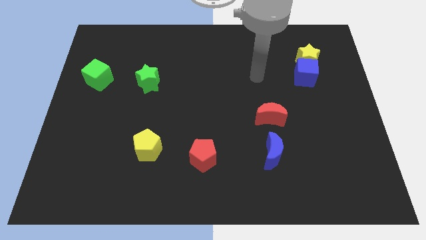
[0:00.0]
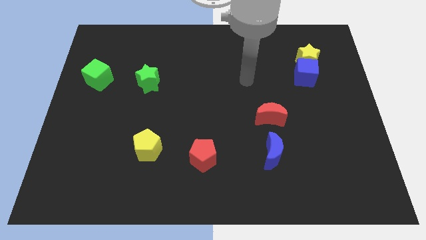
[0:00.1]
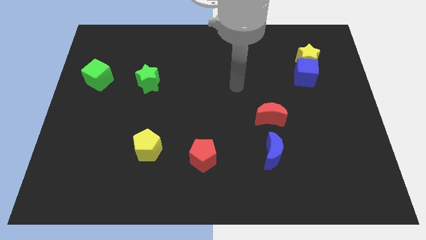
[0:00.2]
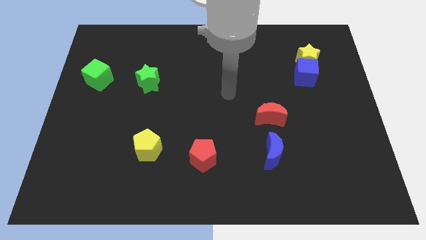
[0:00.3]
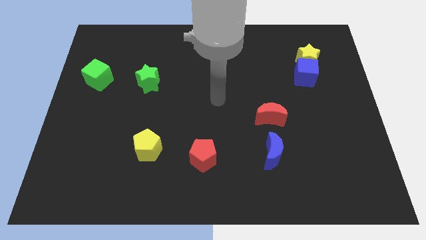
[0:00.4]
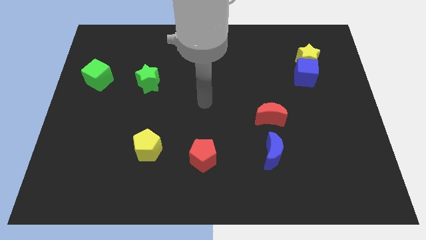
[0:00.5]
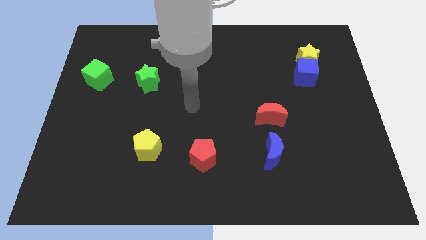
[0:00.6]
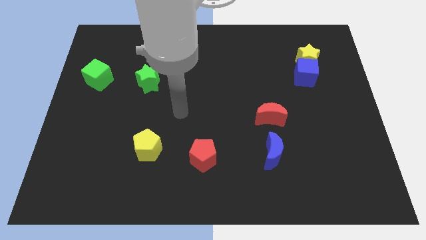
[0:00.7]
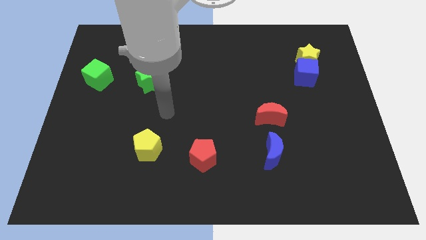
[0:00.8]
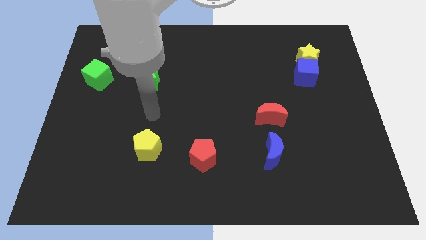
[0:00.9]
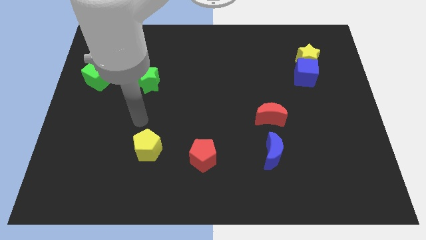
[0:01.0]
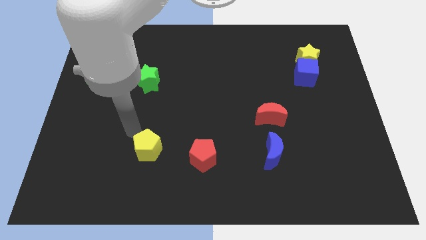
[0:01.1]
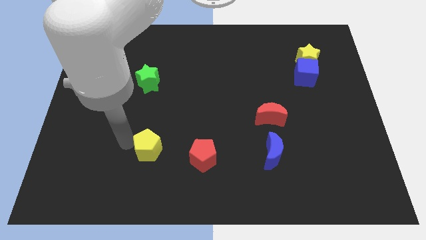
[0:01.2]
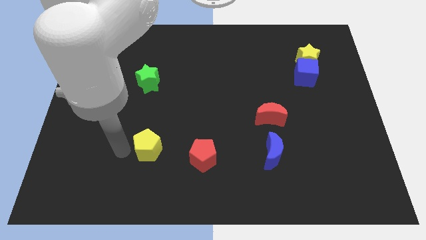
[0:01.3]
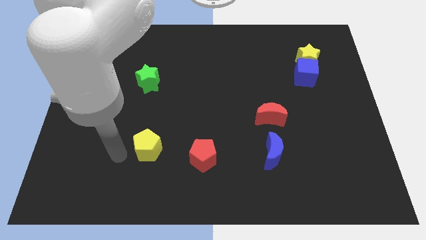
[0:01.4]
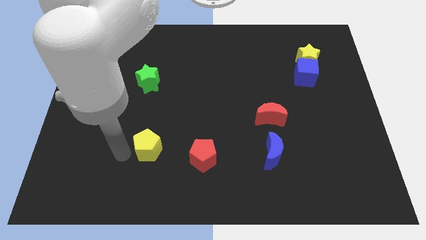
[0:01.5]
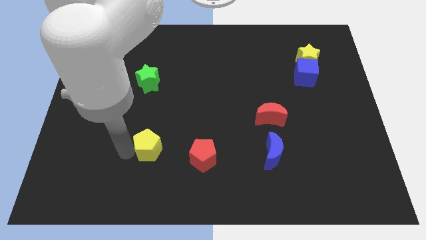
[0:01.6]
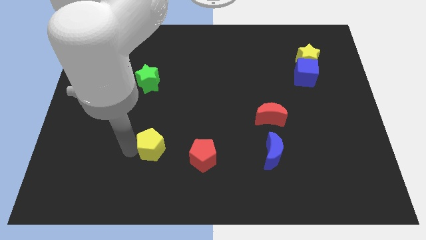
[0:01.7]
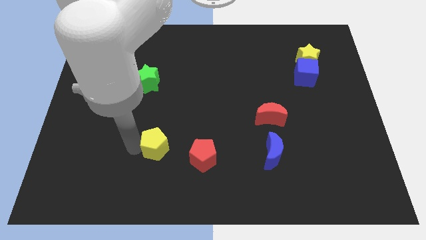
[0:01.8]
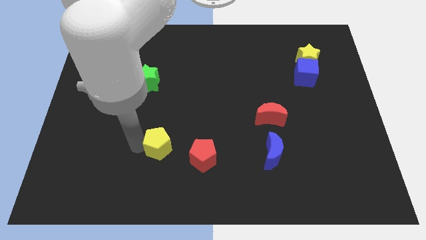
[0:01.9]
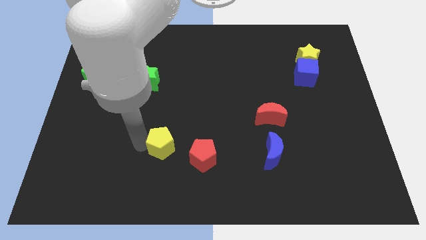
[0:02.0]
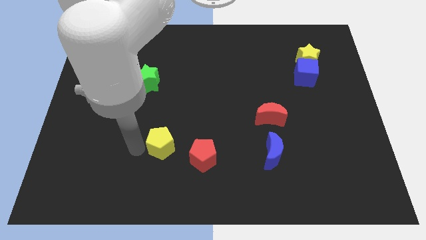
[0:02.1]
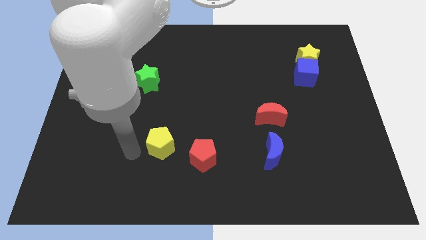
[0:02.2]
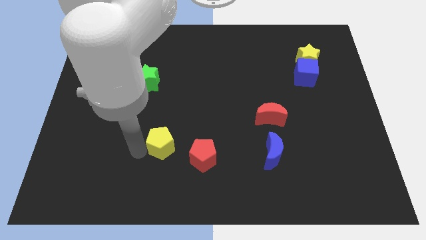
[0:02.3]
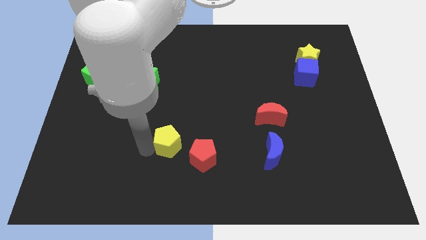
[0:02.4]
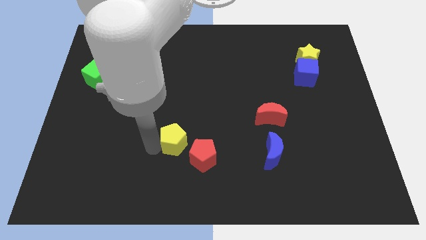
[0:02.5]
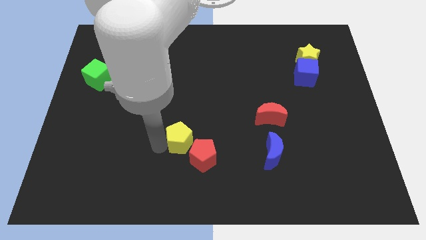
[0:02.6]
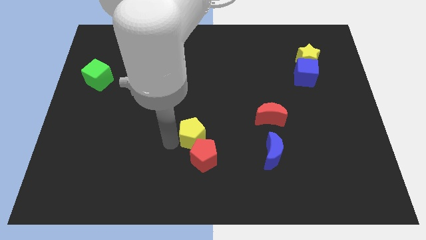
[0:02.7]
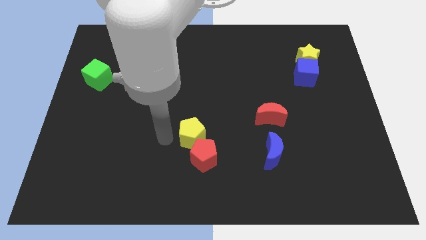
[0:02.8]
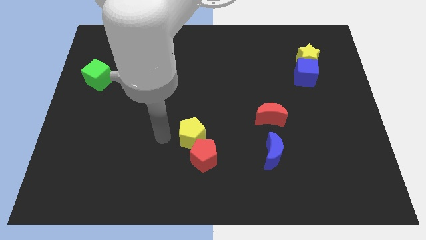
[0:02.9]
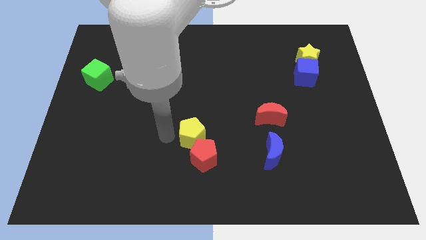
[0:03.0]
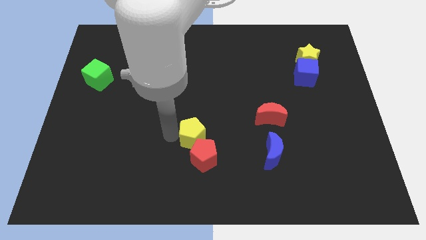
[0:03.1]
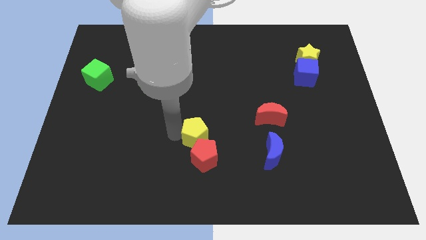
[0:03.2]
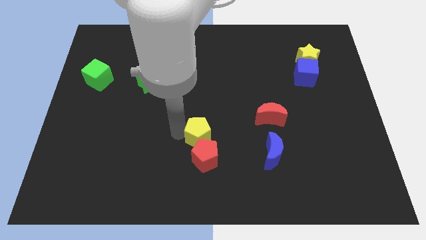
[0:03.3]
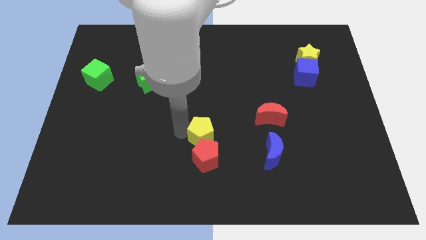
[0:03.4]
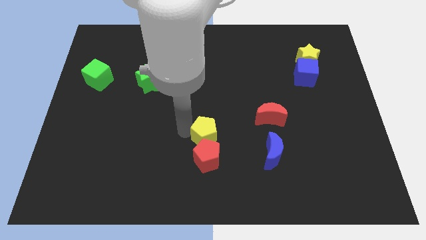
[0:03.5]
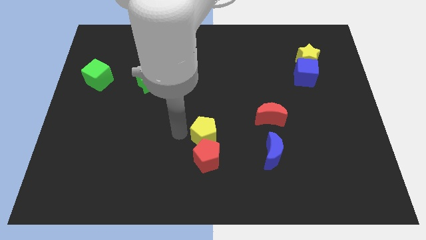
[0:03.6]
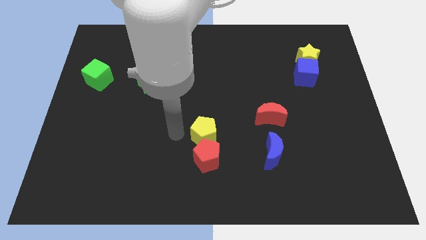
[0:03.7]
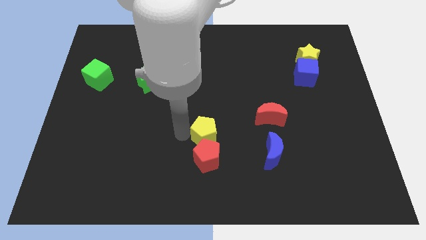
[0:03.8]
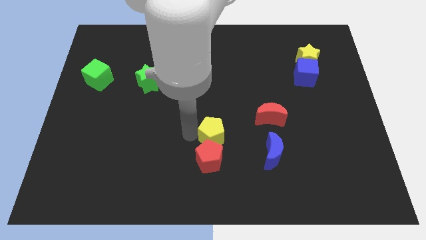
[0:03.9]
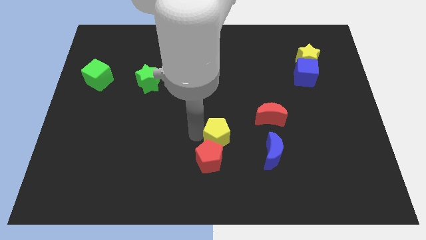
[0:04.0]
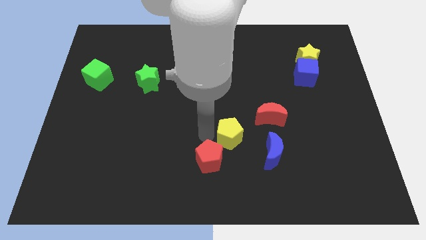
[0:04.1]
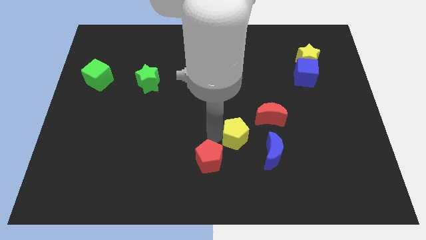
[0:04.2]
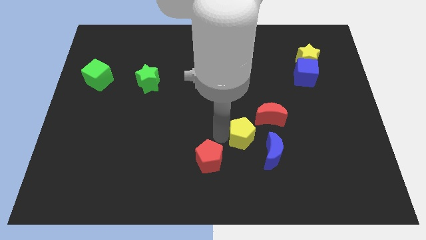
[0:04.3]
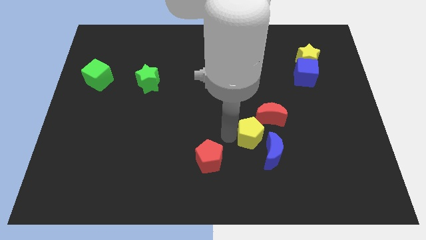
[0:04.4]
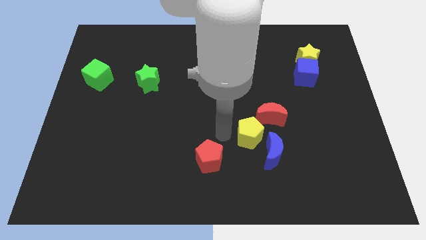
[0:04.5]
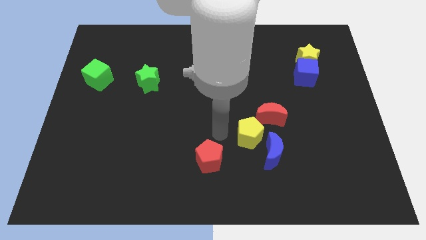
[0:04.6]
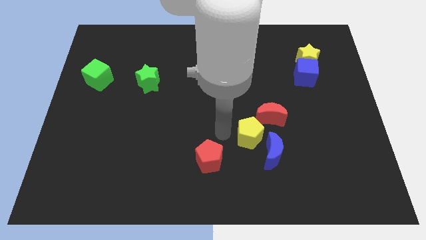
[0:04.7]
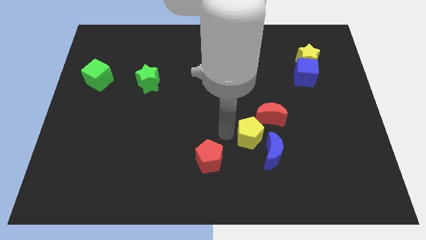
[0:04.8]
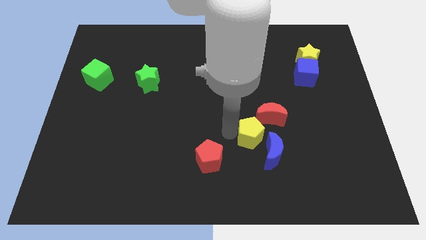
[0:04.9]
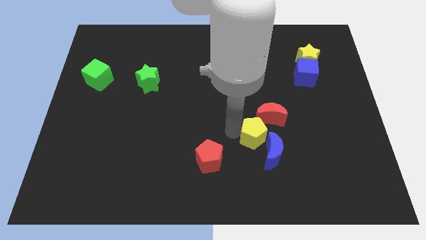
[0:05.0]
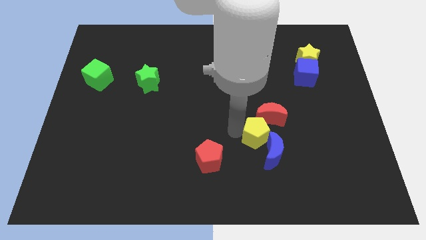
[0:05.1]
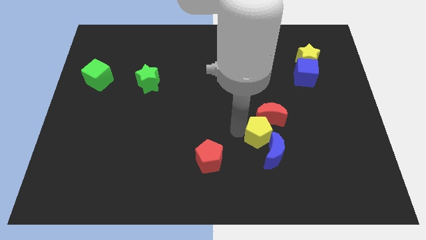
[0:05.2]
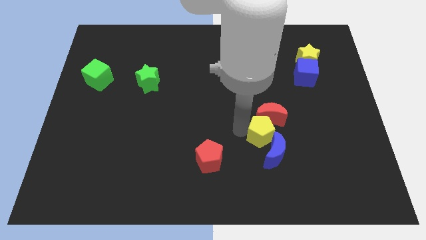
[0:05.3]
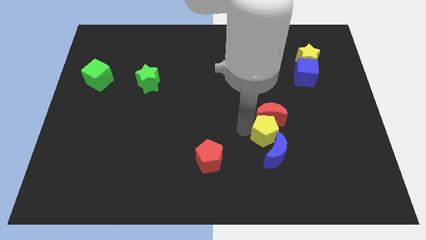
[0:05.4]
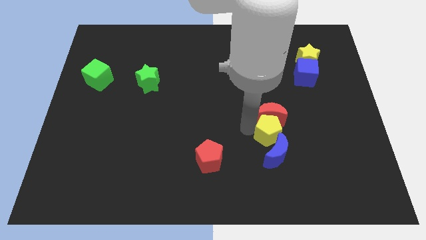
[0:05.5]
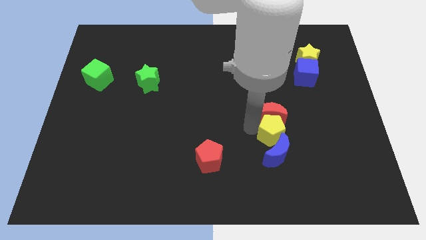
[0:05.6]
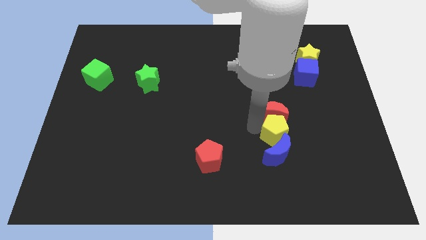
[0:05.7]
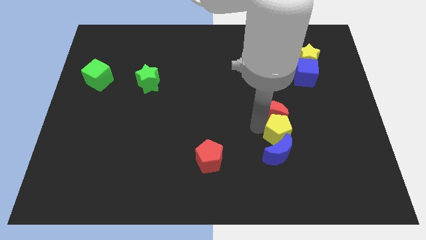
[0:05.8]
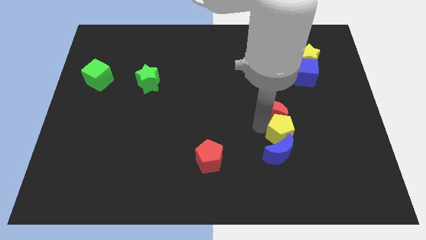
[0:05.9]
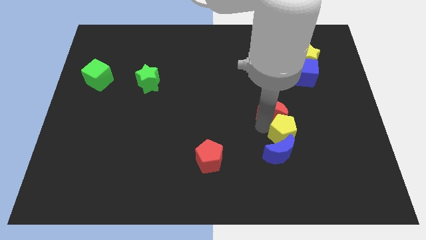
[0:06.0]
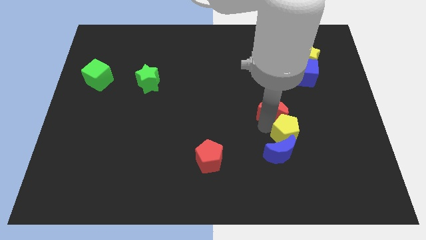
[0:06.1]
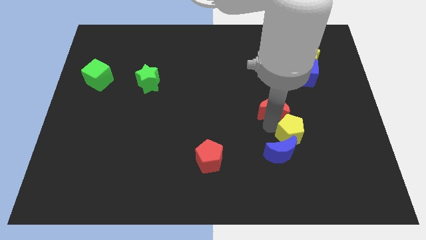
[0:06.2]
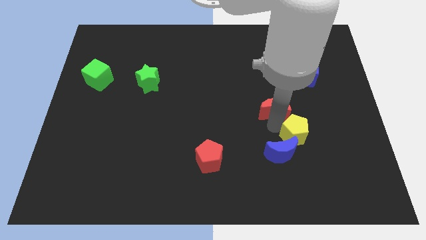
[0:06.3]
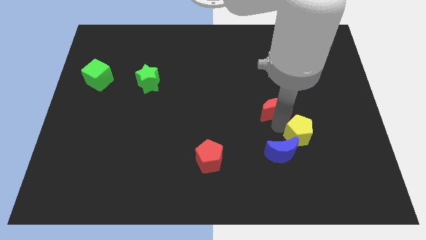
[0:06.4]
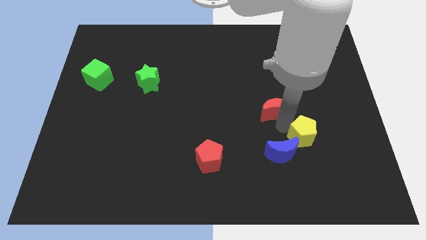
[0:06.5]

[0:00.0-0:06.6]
slide the yellow pentagon to the right of the blue moon
